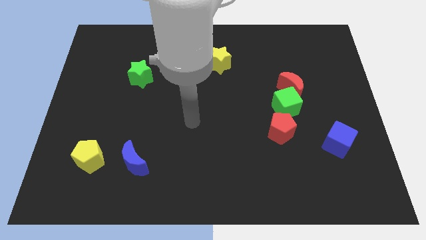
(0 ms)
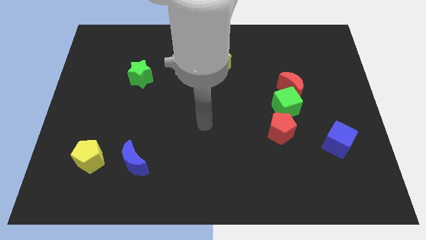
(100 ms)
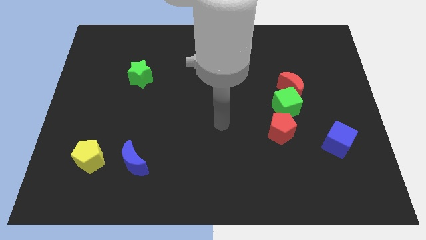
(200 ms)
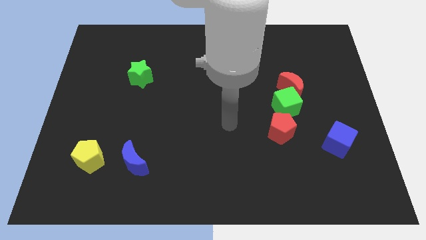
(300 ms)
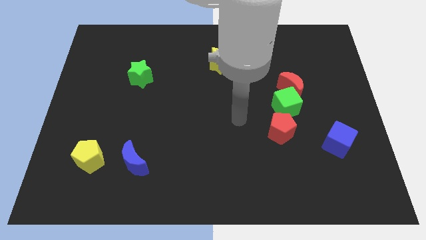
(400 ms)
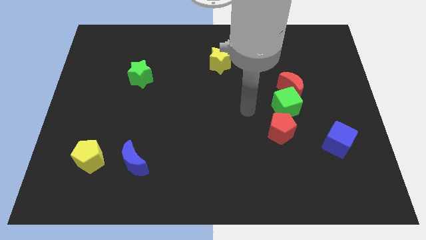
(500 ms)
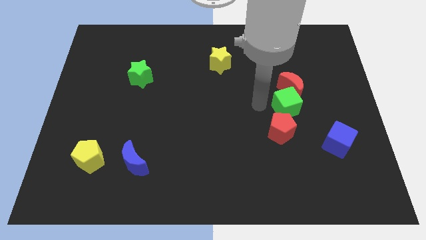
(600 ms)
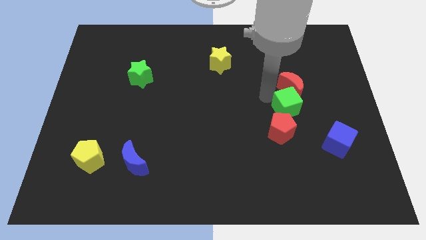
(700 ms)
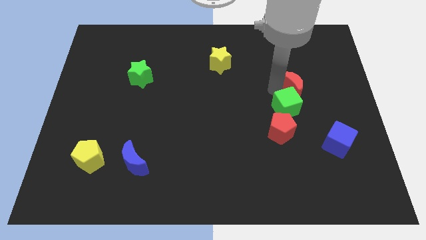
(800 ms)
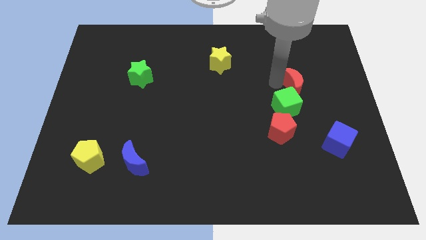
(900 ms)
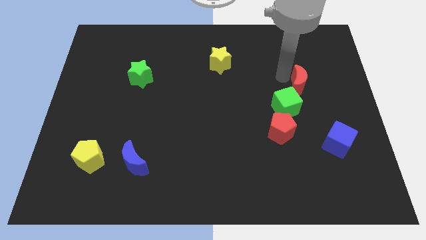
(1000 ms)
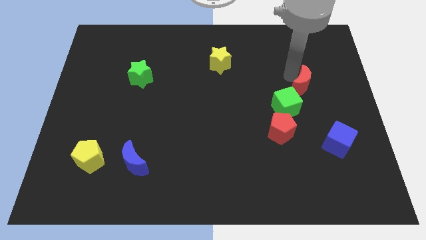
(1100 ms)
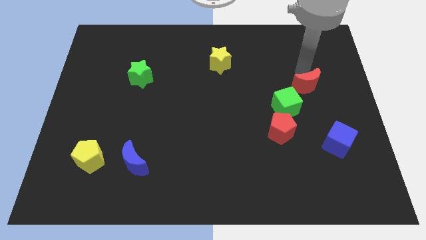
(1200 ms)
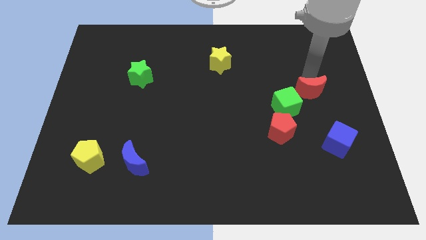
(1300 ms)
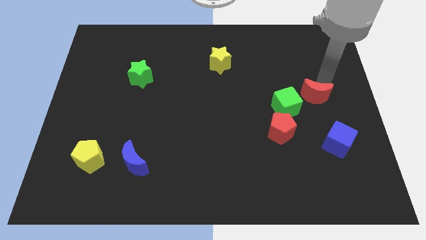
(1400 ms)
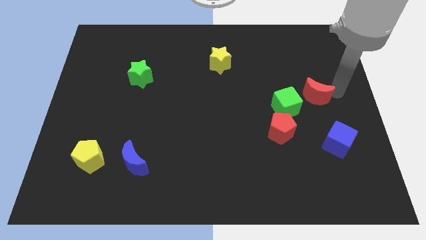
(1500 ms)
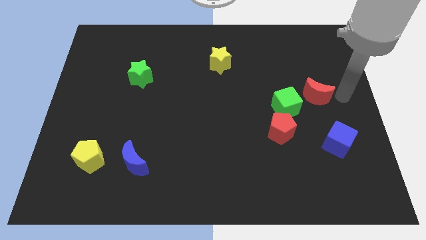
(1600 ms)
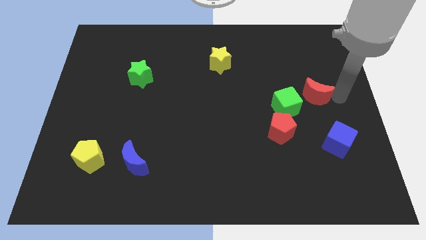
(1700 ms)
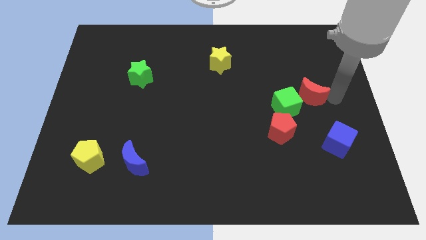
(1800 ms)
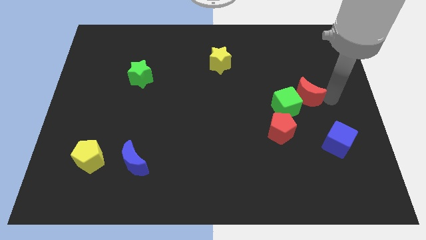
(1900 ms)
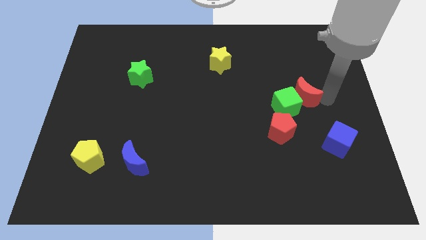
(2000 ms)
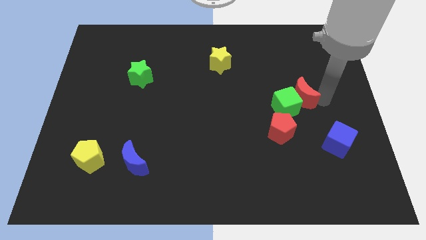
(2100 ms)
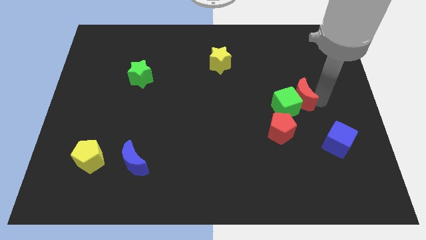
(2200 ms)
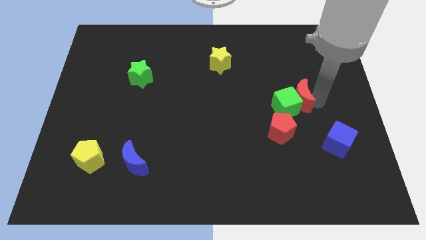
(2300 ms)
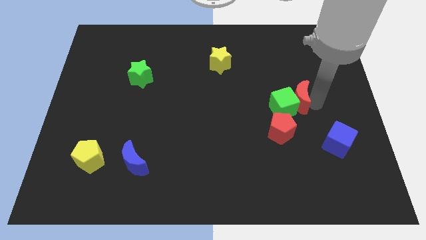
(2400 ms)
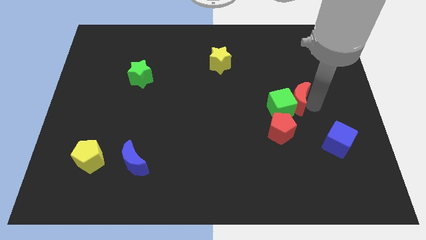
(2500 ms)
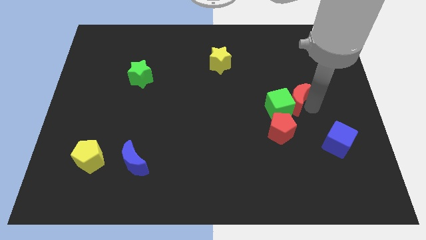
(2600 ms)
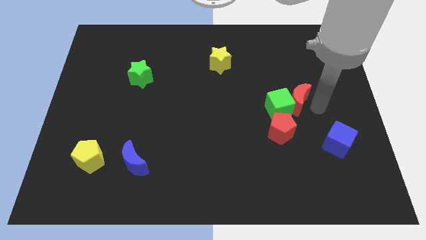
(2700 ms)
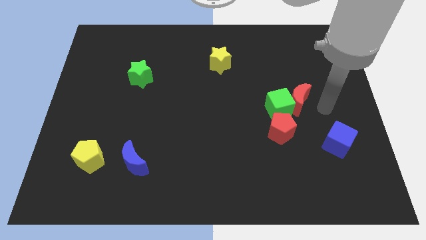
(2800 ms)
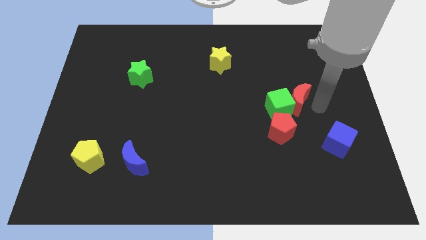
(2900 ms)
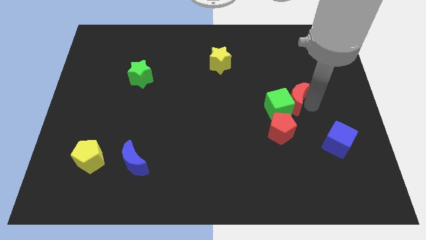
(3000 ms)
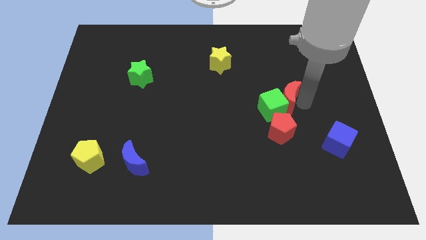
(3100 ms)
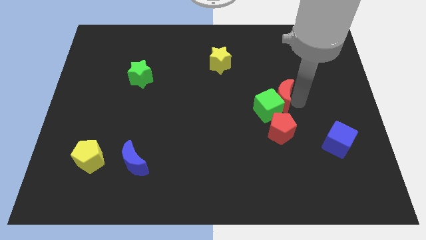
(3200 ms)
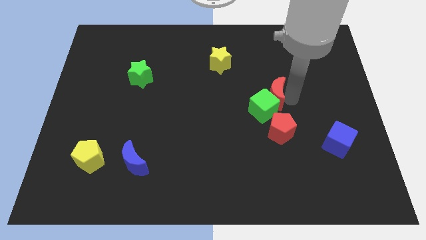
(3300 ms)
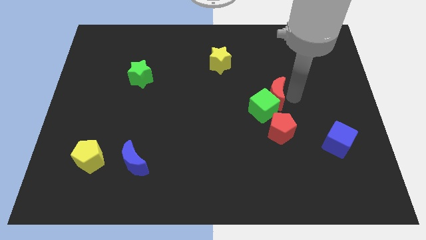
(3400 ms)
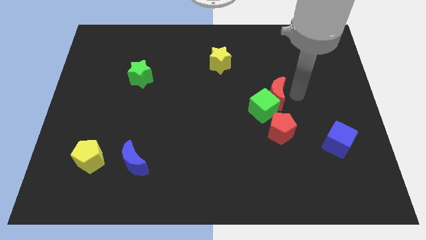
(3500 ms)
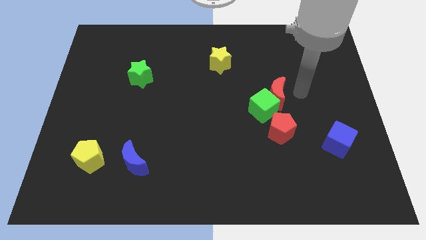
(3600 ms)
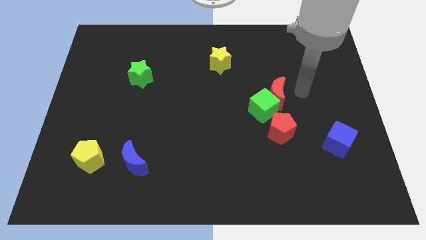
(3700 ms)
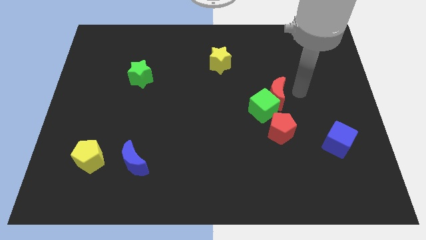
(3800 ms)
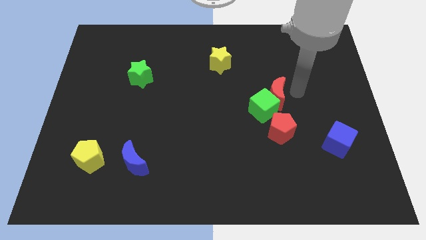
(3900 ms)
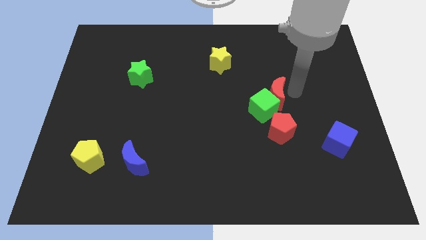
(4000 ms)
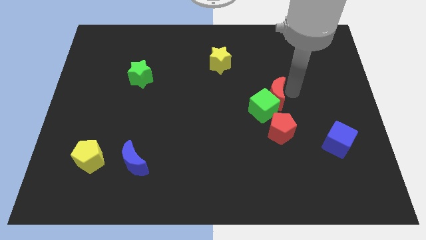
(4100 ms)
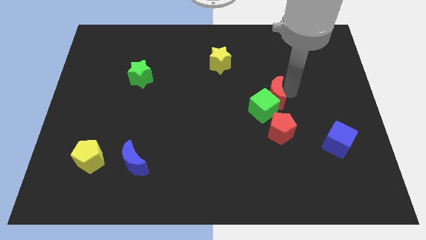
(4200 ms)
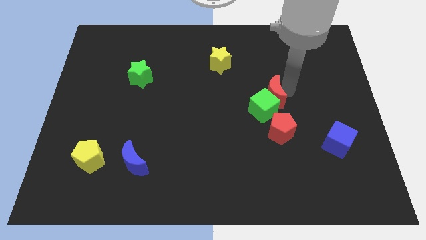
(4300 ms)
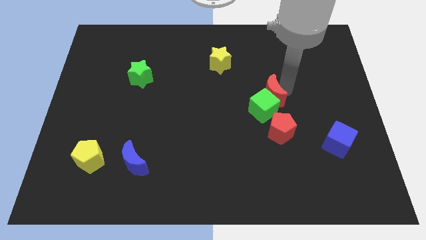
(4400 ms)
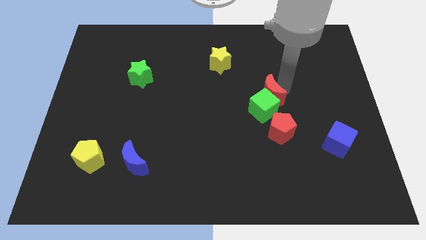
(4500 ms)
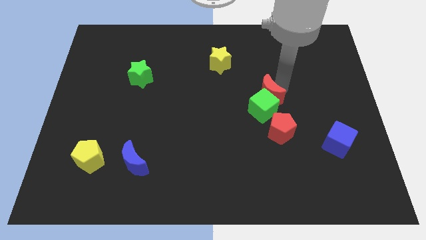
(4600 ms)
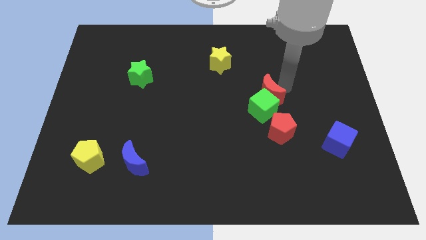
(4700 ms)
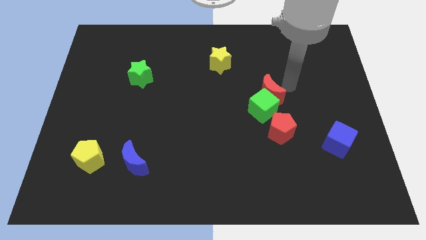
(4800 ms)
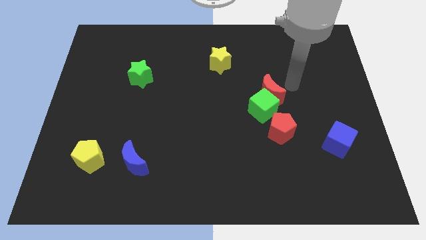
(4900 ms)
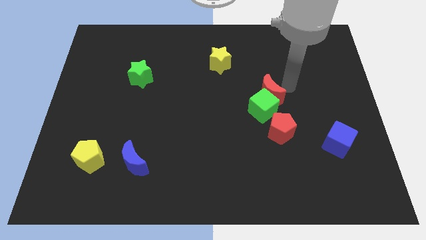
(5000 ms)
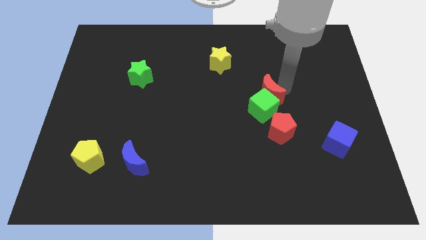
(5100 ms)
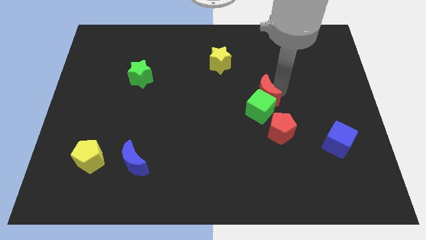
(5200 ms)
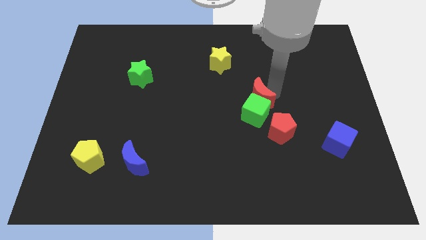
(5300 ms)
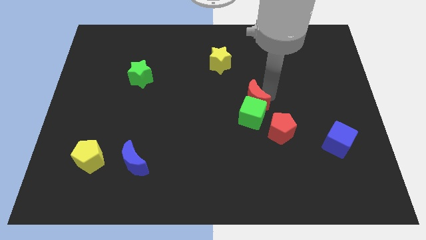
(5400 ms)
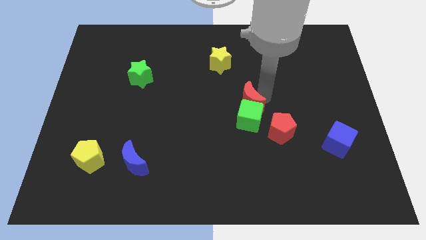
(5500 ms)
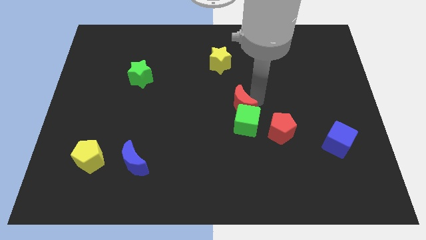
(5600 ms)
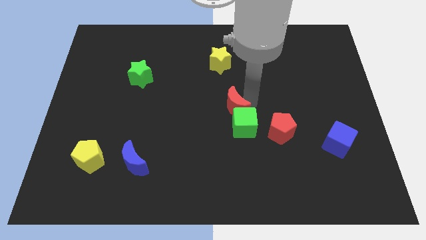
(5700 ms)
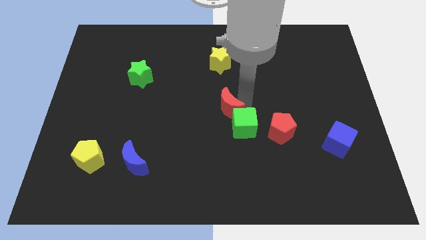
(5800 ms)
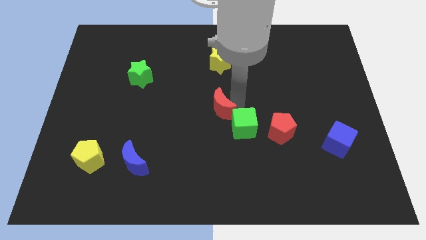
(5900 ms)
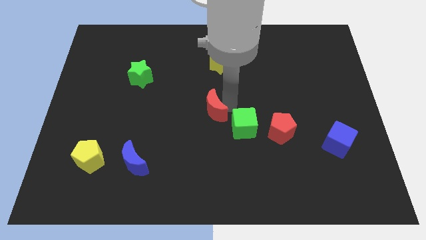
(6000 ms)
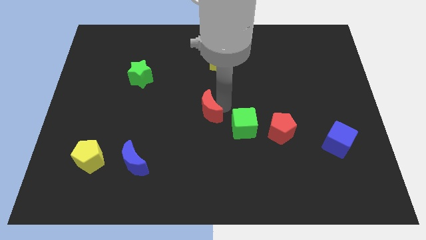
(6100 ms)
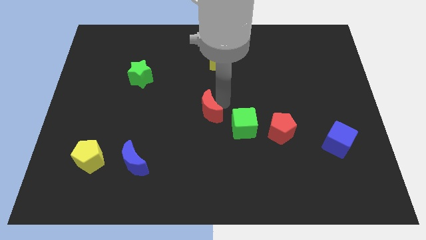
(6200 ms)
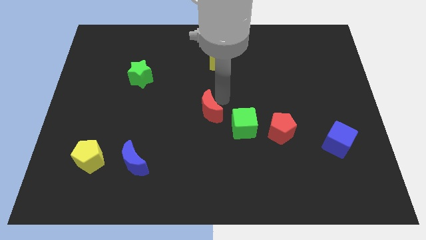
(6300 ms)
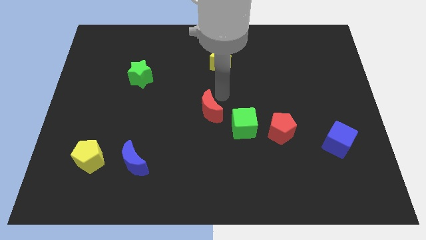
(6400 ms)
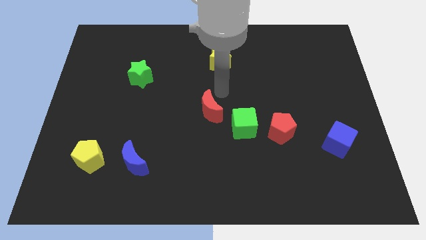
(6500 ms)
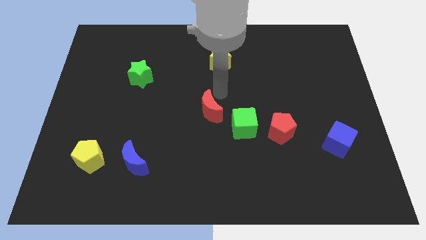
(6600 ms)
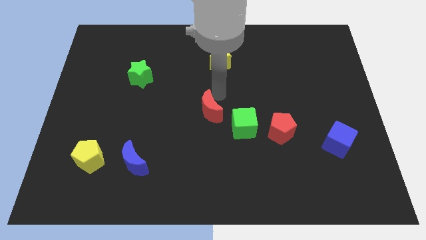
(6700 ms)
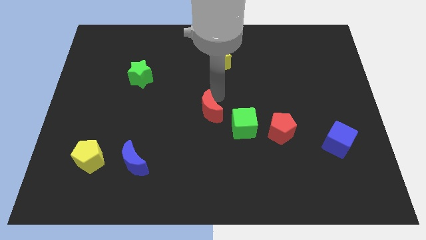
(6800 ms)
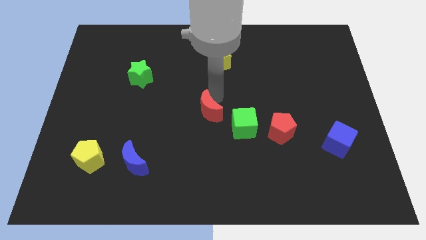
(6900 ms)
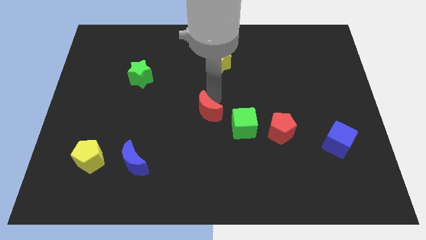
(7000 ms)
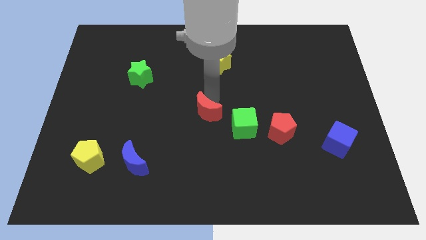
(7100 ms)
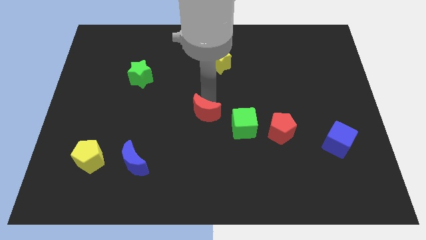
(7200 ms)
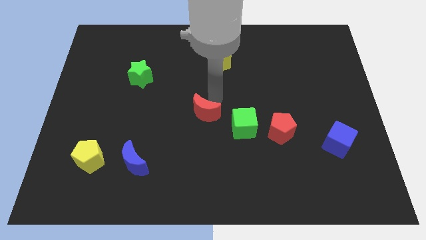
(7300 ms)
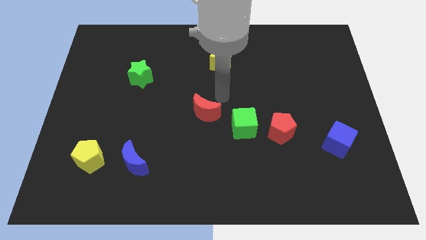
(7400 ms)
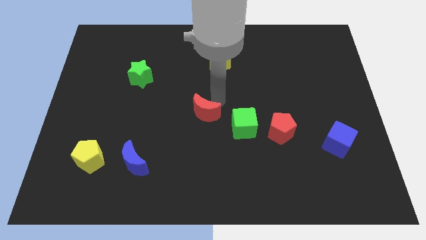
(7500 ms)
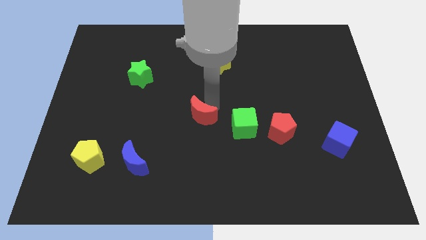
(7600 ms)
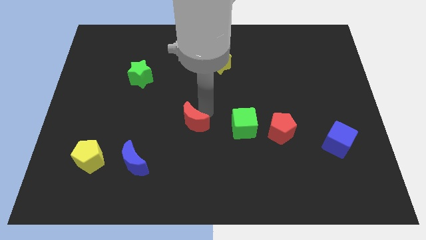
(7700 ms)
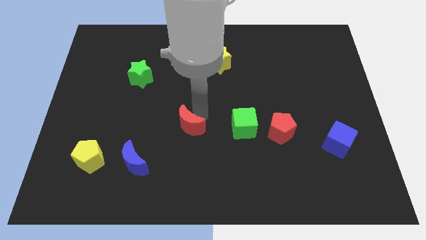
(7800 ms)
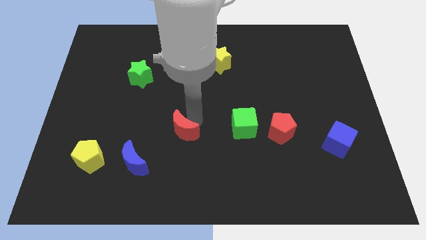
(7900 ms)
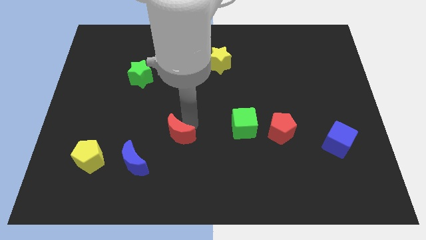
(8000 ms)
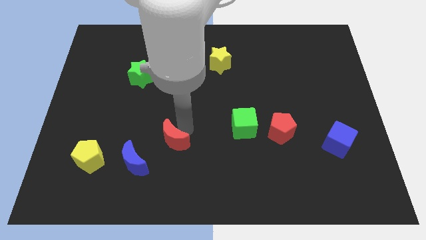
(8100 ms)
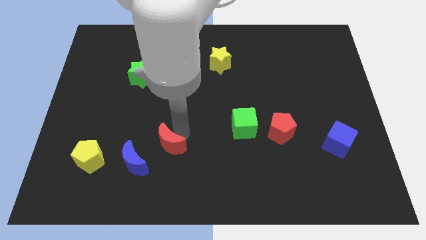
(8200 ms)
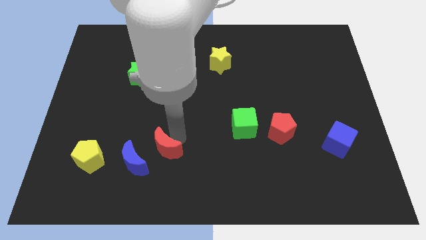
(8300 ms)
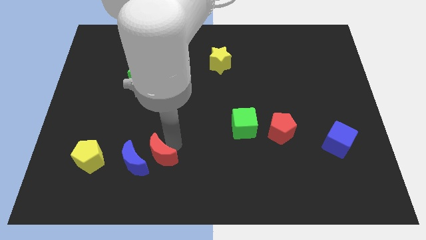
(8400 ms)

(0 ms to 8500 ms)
push the red moon next to the blue moon
